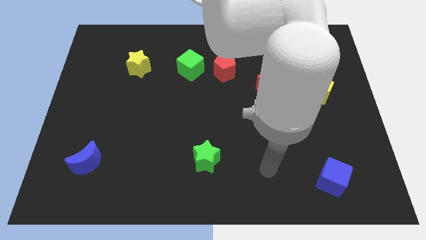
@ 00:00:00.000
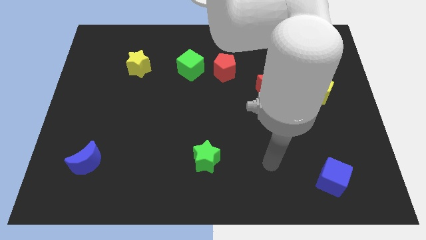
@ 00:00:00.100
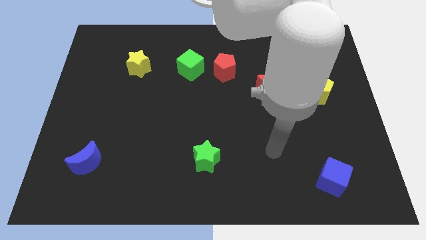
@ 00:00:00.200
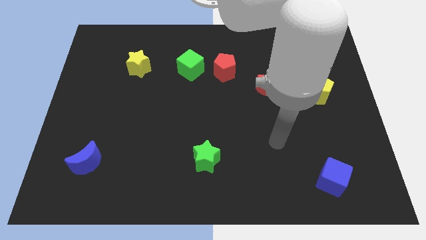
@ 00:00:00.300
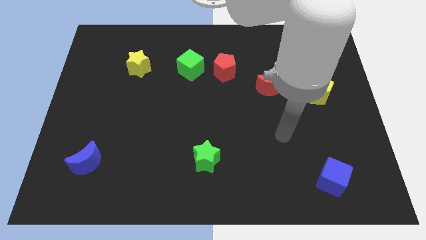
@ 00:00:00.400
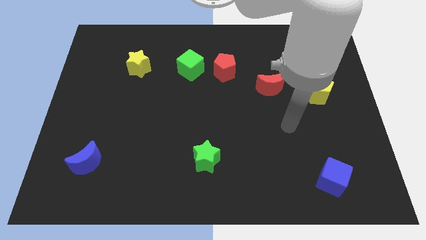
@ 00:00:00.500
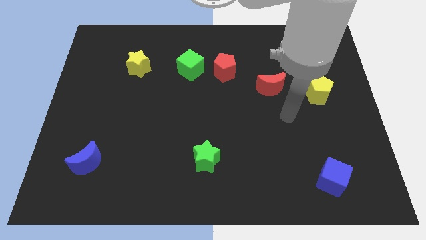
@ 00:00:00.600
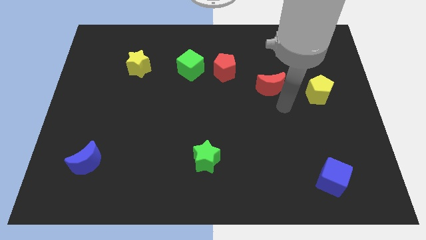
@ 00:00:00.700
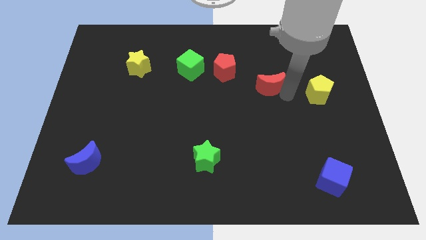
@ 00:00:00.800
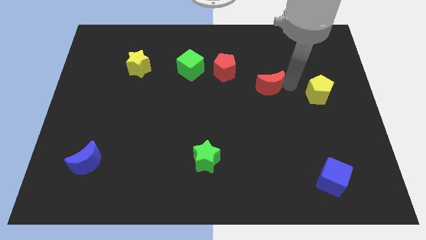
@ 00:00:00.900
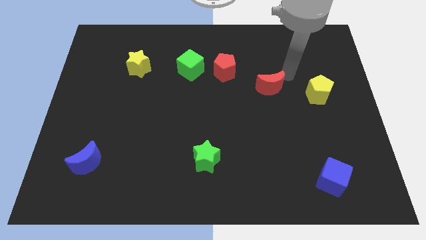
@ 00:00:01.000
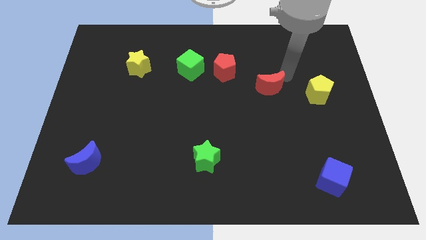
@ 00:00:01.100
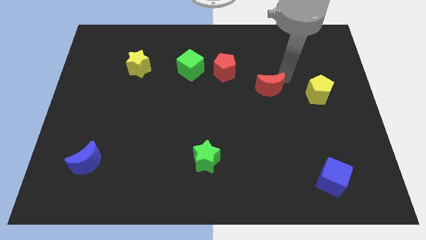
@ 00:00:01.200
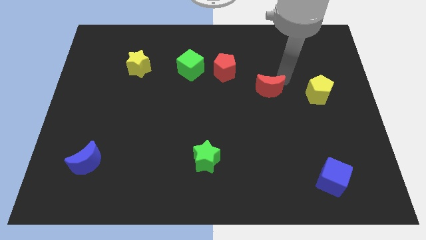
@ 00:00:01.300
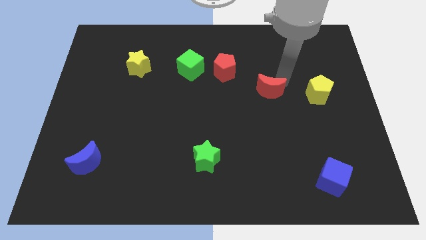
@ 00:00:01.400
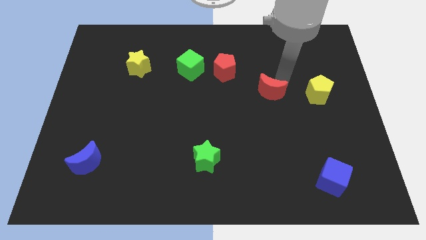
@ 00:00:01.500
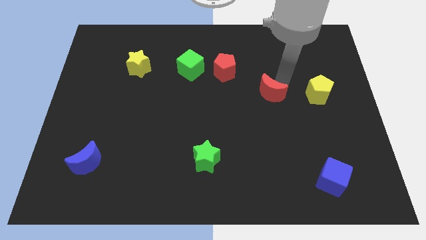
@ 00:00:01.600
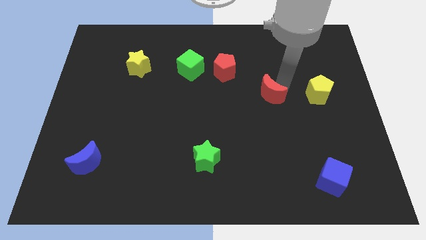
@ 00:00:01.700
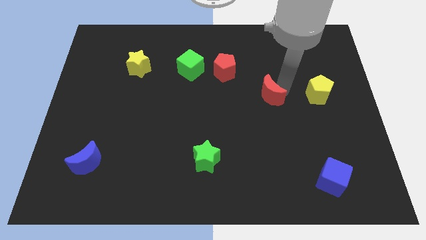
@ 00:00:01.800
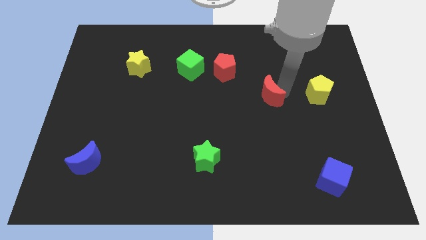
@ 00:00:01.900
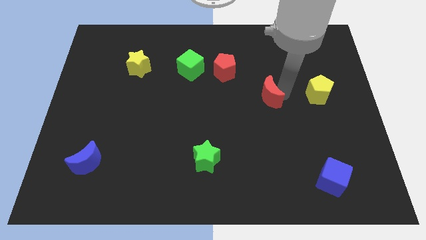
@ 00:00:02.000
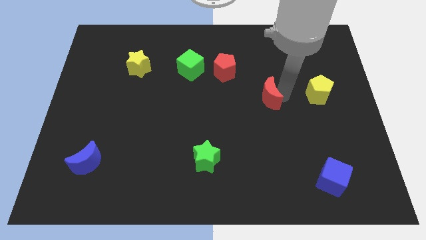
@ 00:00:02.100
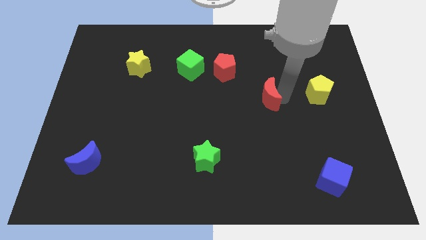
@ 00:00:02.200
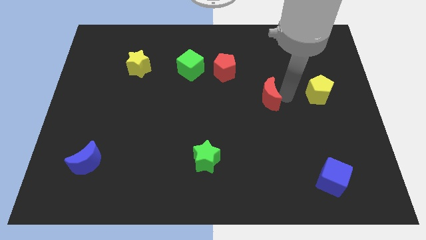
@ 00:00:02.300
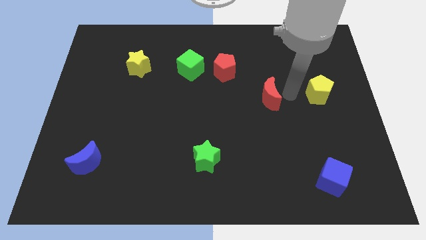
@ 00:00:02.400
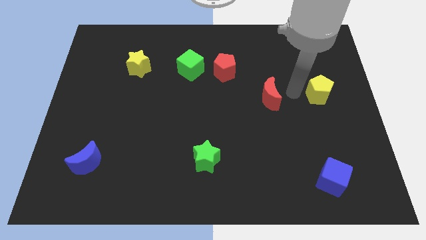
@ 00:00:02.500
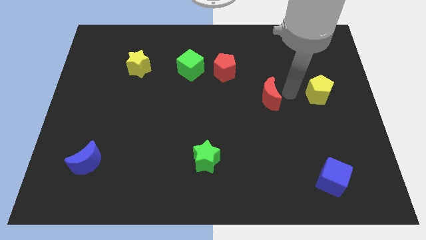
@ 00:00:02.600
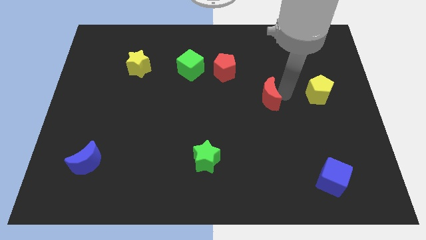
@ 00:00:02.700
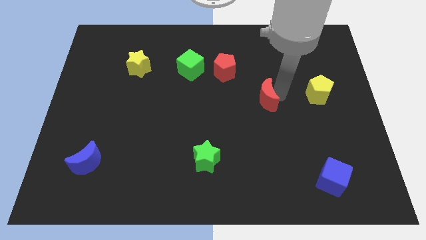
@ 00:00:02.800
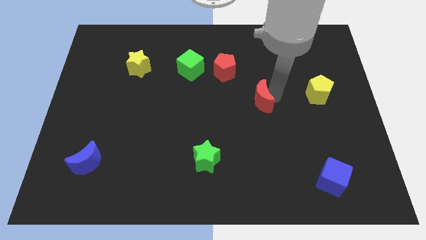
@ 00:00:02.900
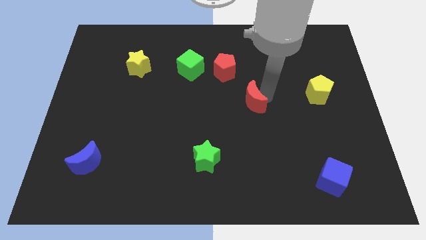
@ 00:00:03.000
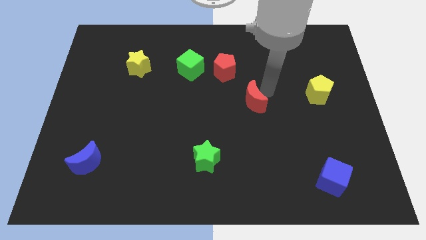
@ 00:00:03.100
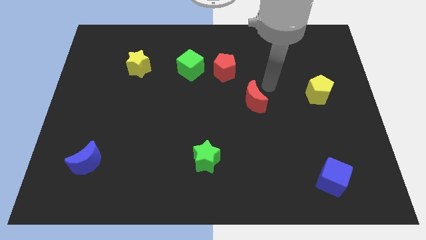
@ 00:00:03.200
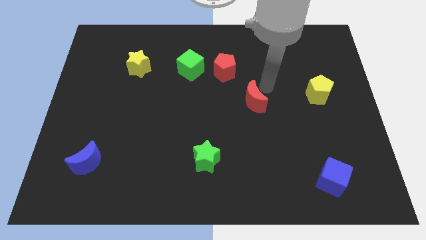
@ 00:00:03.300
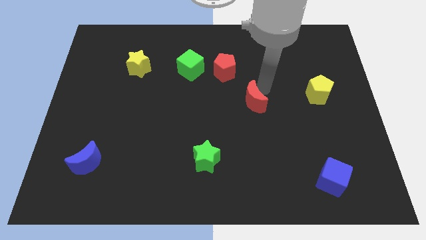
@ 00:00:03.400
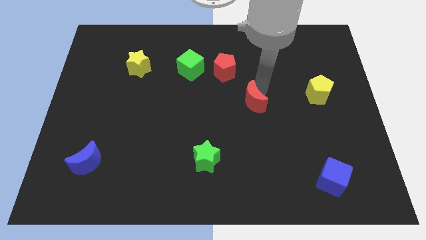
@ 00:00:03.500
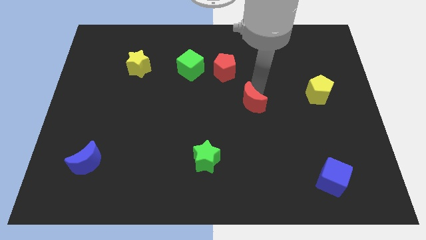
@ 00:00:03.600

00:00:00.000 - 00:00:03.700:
slightly move the red moon downwards and left

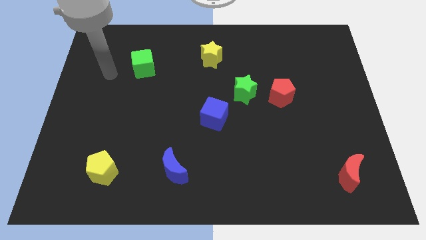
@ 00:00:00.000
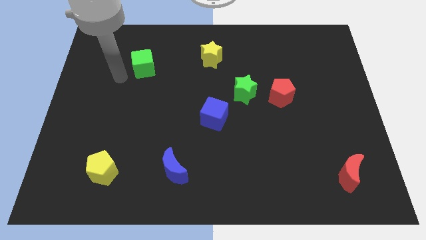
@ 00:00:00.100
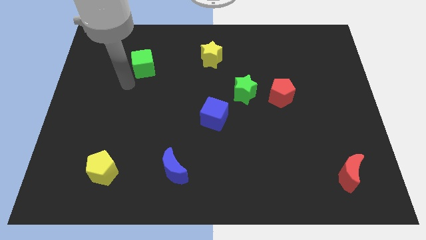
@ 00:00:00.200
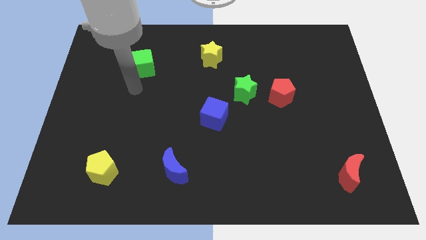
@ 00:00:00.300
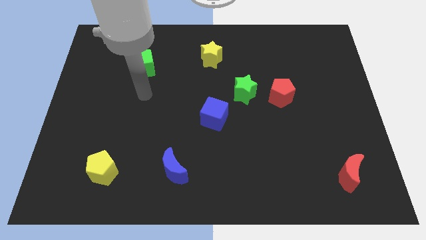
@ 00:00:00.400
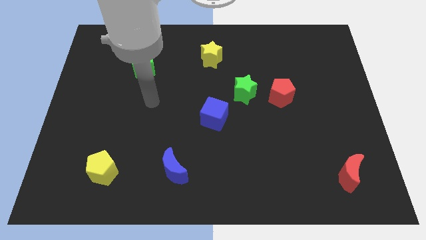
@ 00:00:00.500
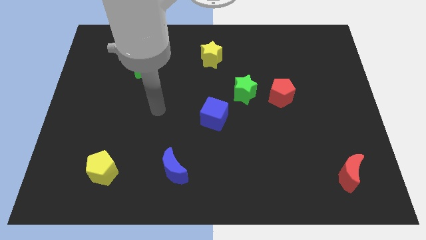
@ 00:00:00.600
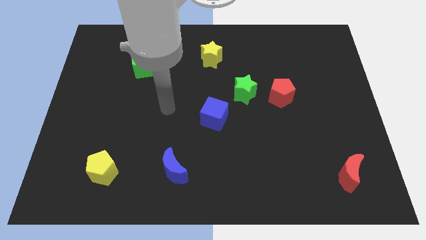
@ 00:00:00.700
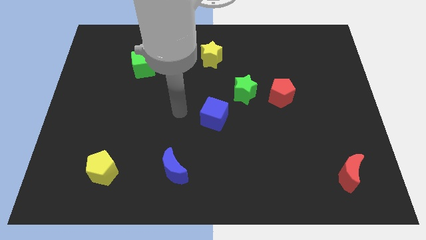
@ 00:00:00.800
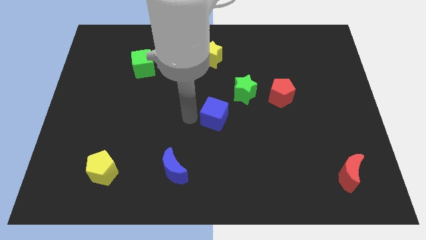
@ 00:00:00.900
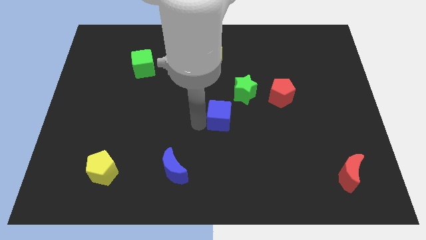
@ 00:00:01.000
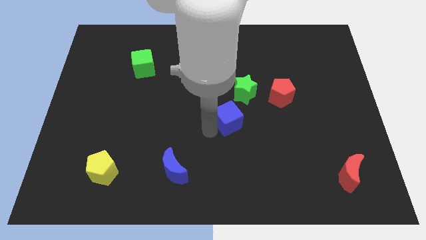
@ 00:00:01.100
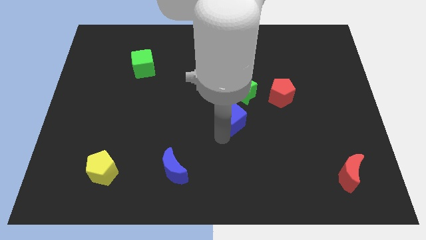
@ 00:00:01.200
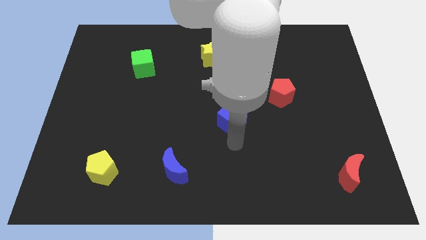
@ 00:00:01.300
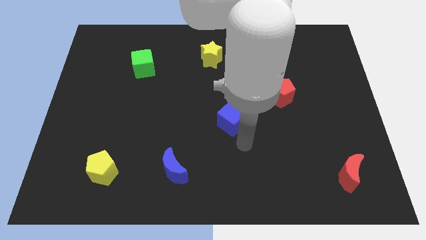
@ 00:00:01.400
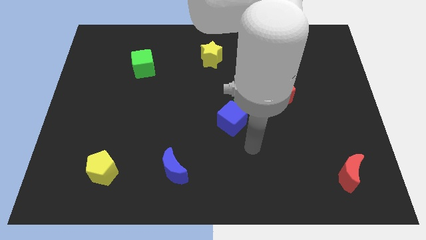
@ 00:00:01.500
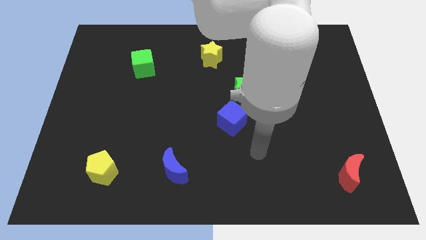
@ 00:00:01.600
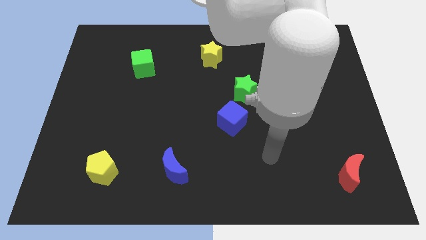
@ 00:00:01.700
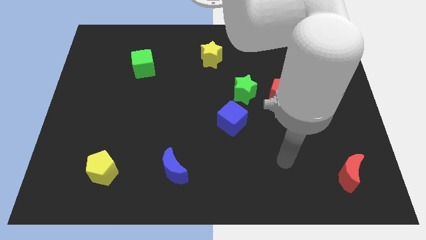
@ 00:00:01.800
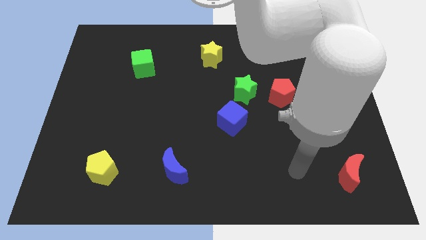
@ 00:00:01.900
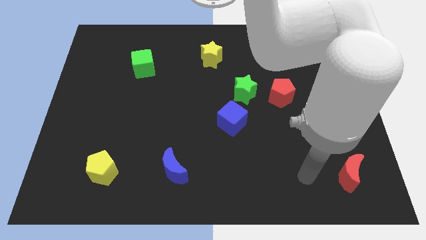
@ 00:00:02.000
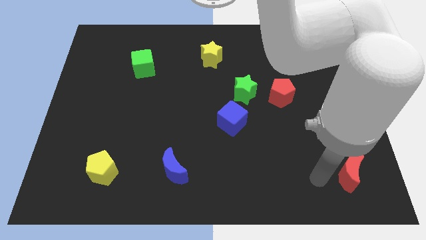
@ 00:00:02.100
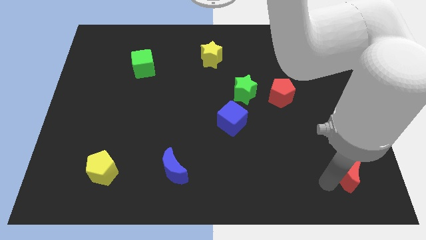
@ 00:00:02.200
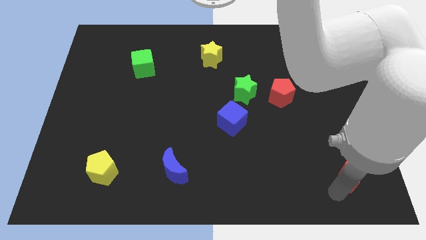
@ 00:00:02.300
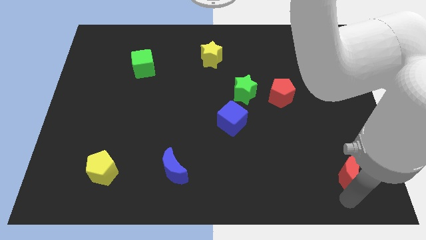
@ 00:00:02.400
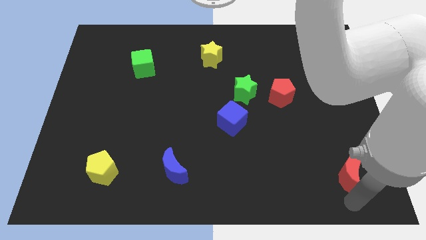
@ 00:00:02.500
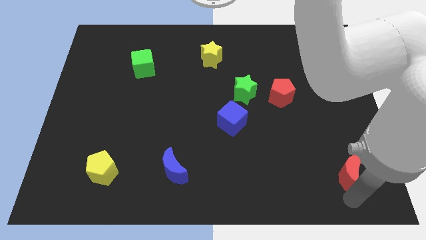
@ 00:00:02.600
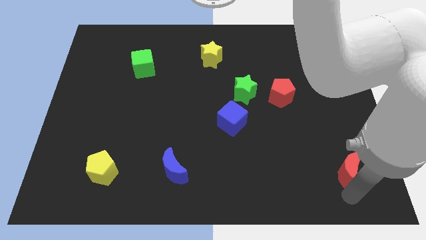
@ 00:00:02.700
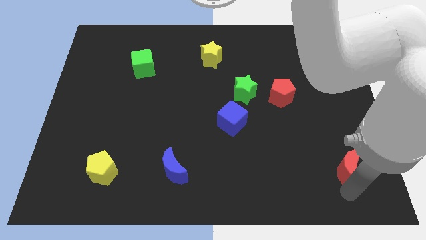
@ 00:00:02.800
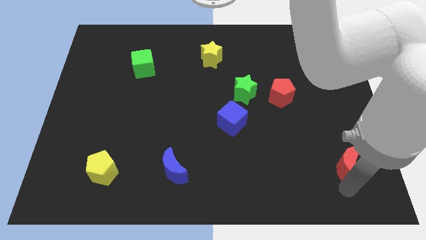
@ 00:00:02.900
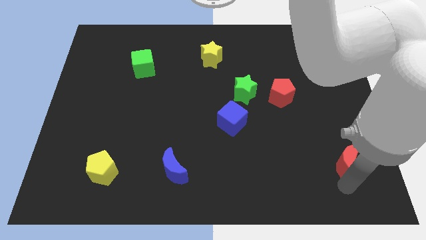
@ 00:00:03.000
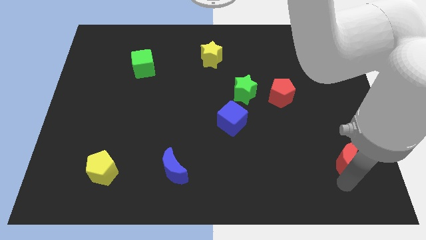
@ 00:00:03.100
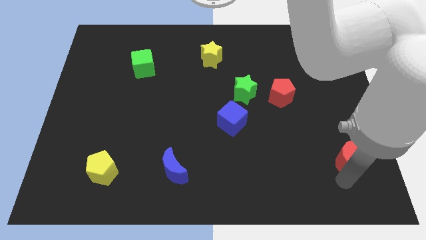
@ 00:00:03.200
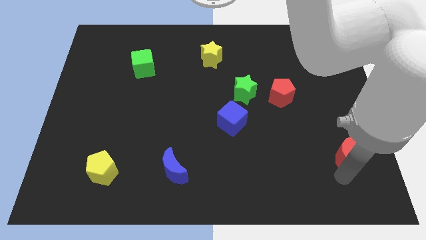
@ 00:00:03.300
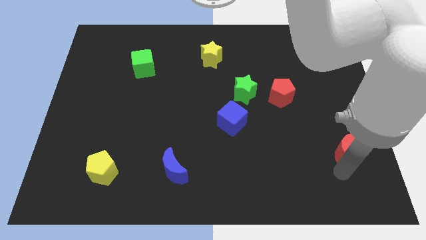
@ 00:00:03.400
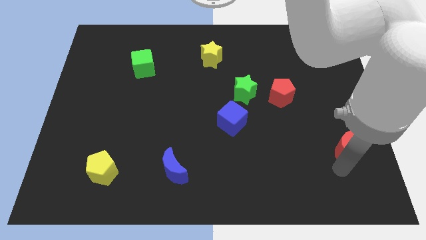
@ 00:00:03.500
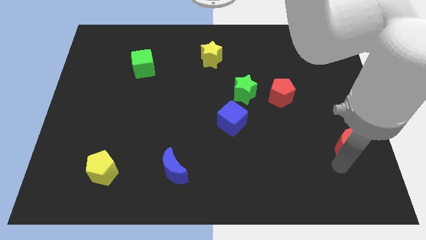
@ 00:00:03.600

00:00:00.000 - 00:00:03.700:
move the red moon slightly up

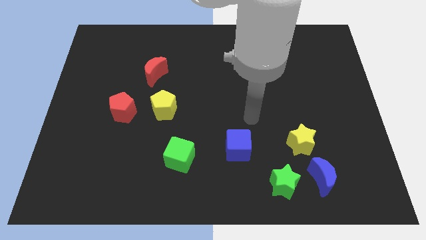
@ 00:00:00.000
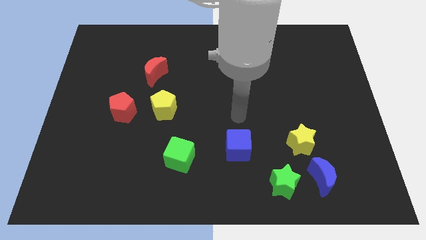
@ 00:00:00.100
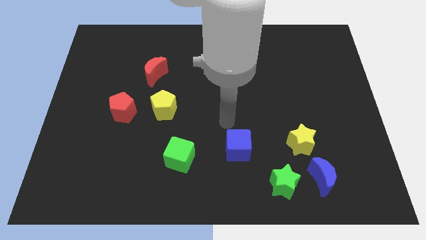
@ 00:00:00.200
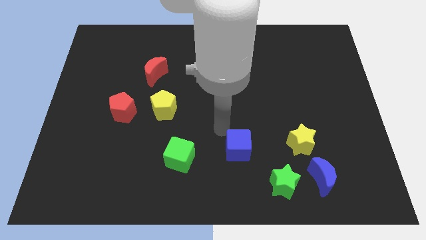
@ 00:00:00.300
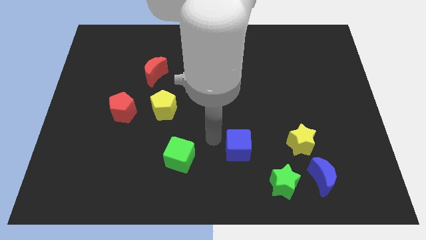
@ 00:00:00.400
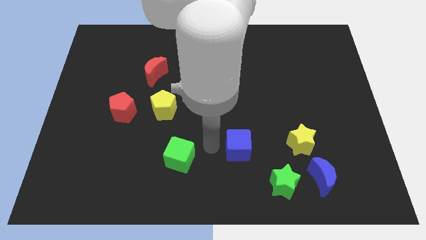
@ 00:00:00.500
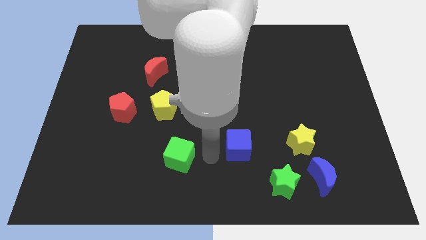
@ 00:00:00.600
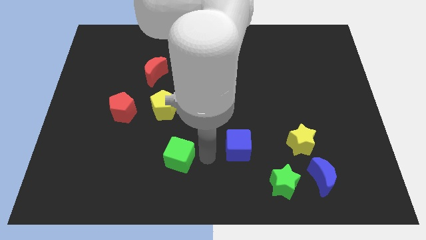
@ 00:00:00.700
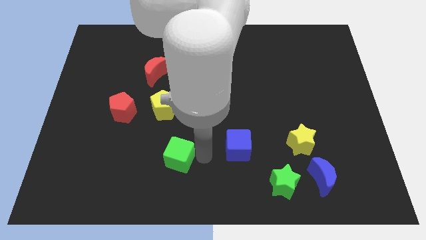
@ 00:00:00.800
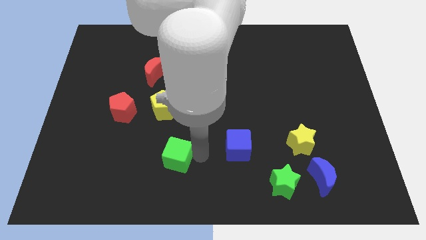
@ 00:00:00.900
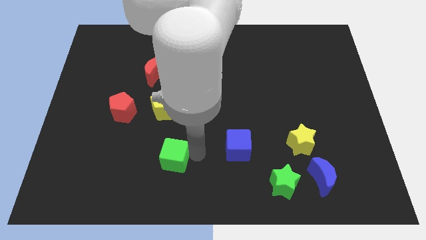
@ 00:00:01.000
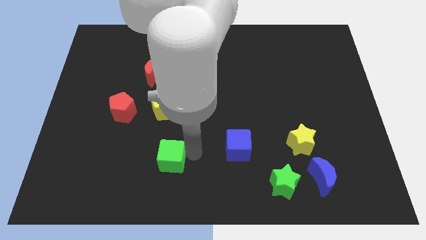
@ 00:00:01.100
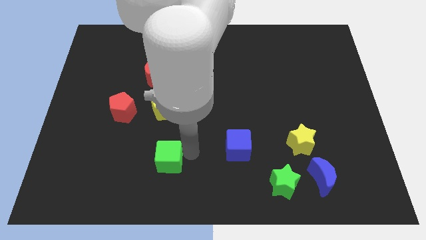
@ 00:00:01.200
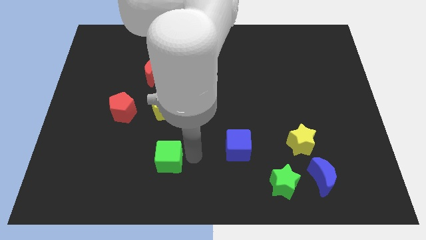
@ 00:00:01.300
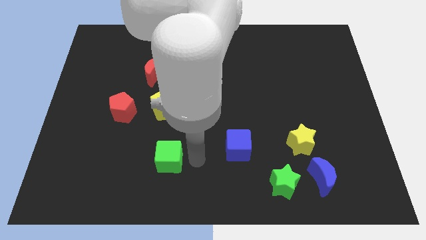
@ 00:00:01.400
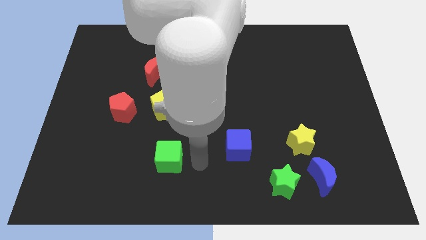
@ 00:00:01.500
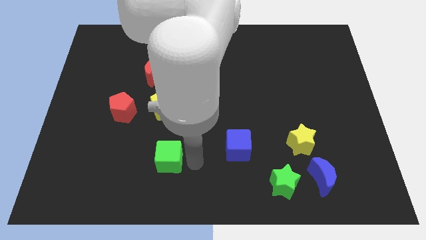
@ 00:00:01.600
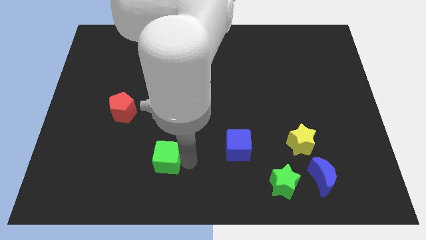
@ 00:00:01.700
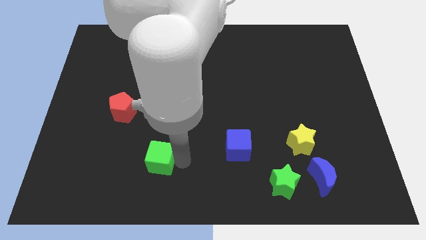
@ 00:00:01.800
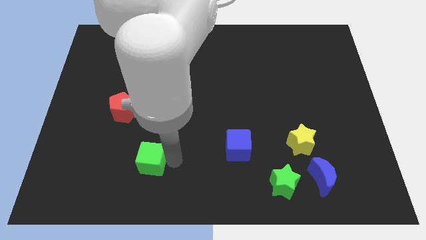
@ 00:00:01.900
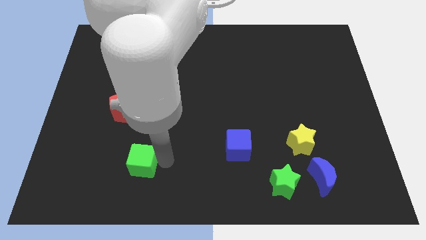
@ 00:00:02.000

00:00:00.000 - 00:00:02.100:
move the green cube to the left a little bit
